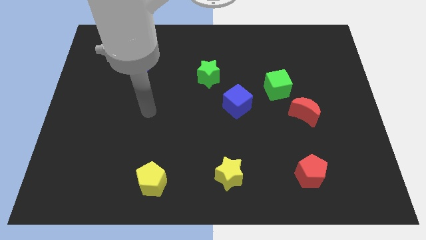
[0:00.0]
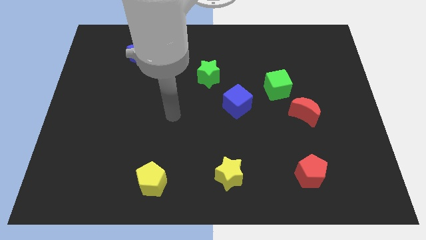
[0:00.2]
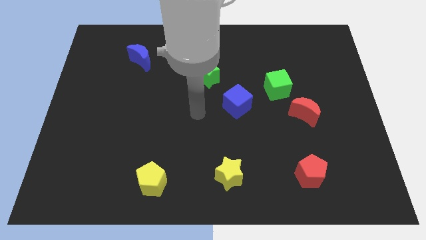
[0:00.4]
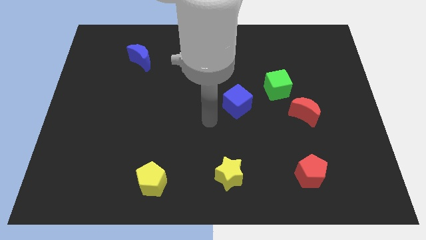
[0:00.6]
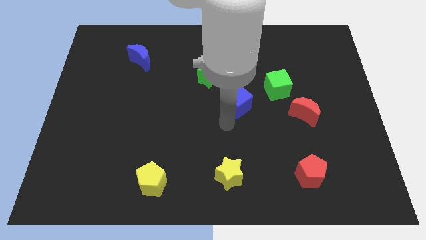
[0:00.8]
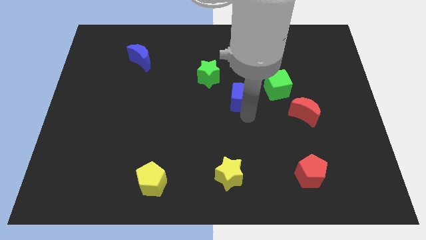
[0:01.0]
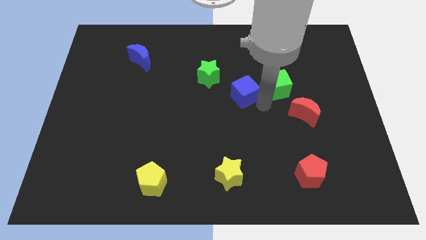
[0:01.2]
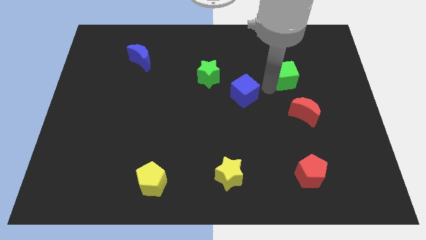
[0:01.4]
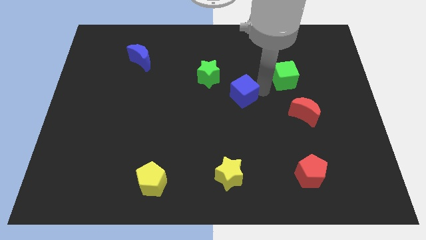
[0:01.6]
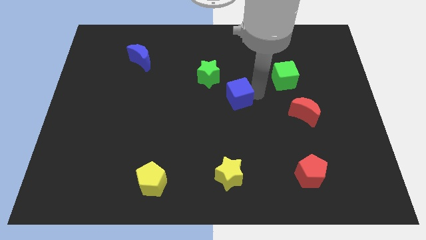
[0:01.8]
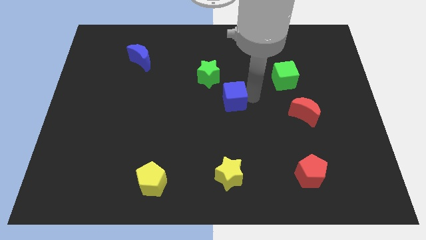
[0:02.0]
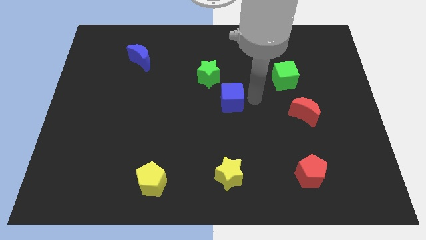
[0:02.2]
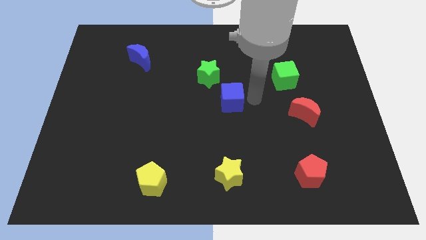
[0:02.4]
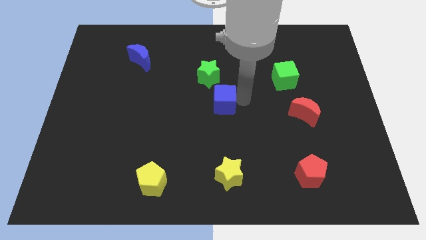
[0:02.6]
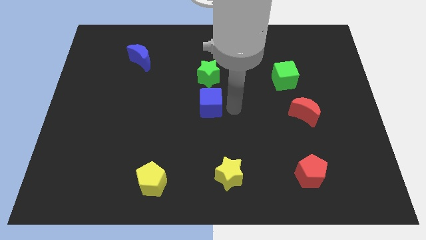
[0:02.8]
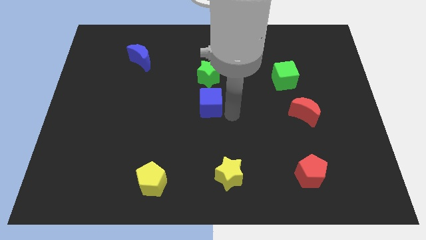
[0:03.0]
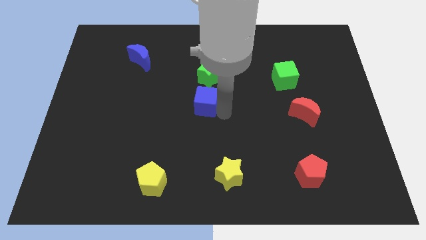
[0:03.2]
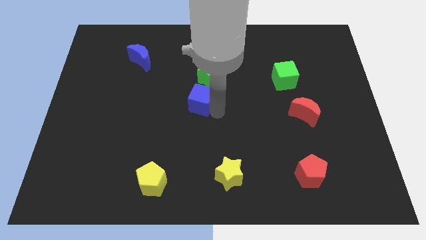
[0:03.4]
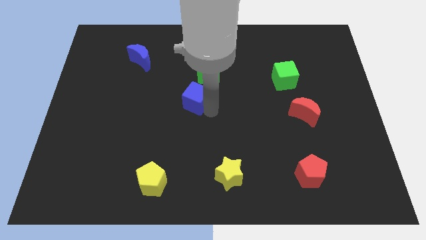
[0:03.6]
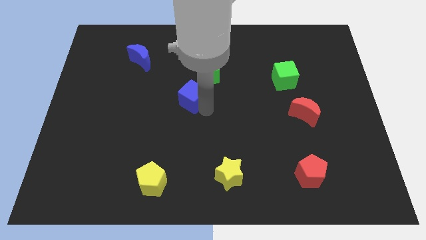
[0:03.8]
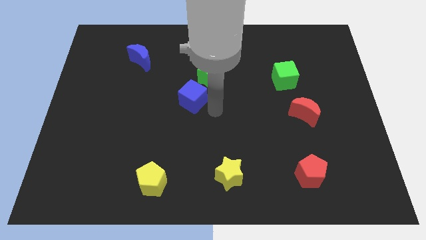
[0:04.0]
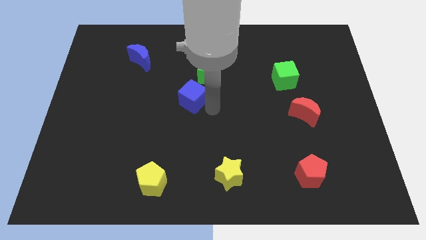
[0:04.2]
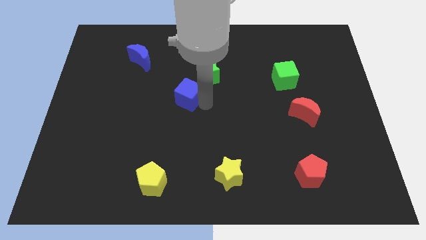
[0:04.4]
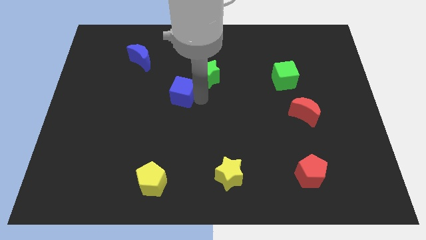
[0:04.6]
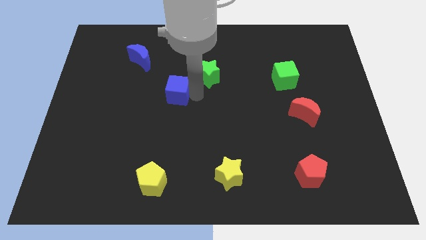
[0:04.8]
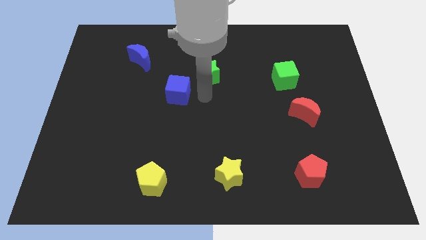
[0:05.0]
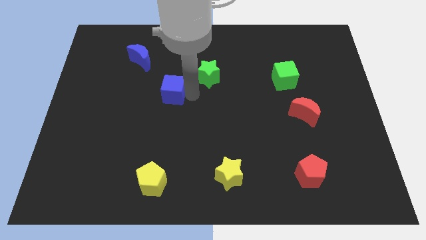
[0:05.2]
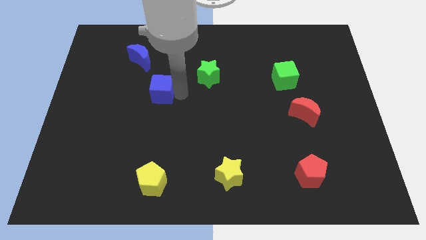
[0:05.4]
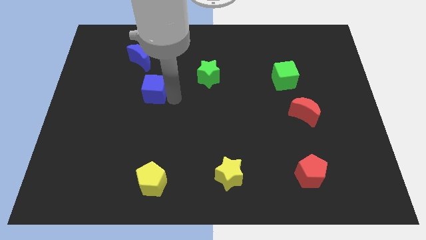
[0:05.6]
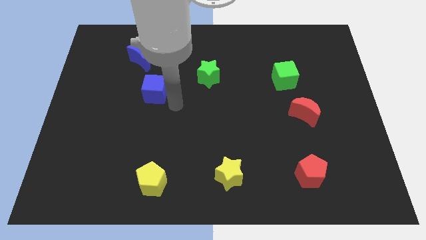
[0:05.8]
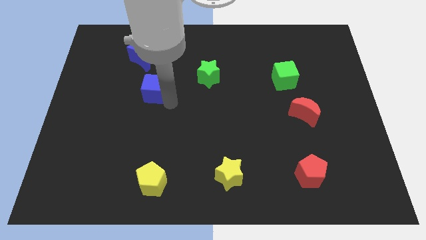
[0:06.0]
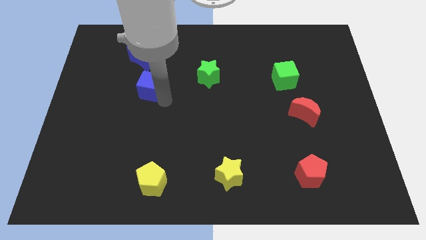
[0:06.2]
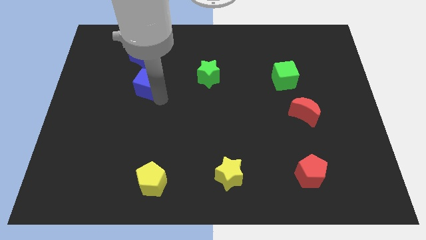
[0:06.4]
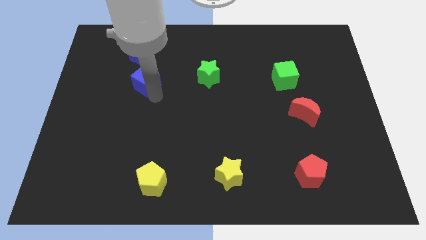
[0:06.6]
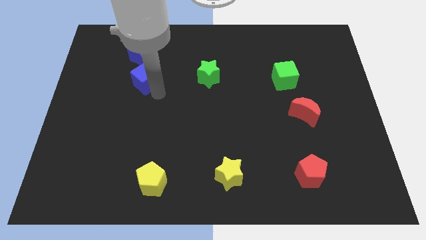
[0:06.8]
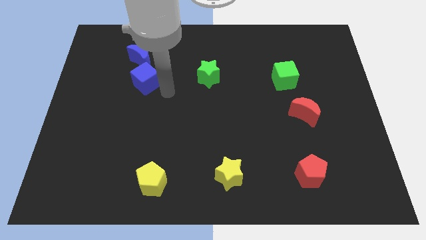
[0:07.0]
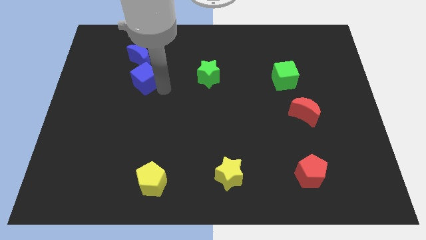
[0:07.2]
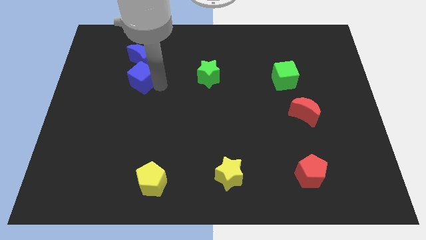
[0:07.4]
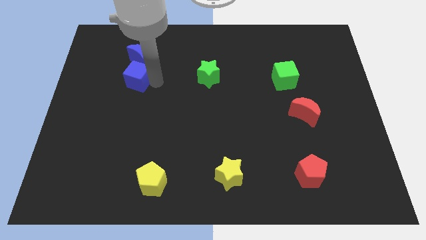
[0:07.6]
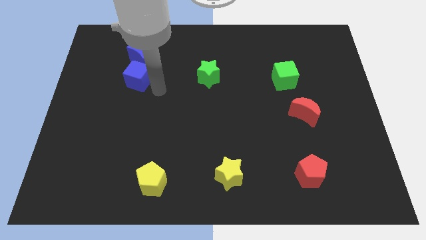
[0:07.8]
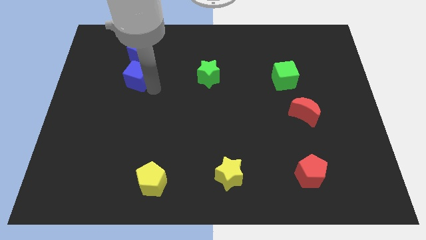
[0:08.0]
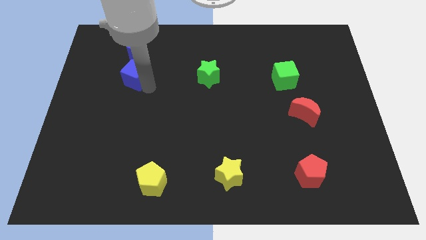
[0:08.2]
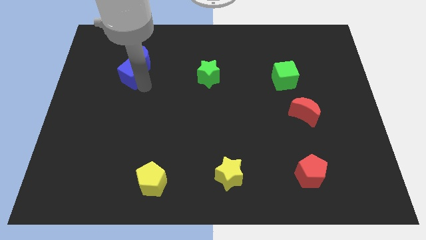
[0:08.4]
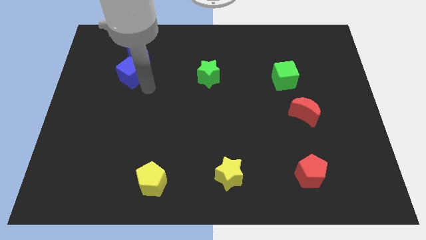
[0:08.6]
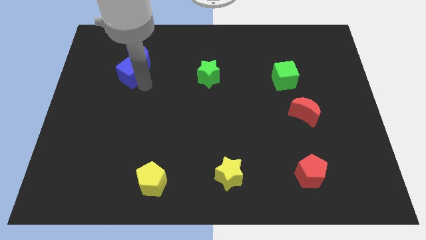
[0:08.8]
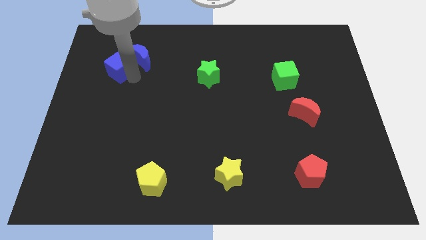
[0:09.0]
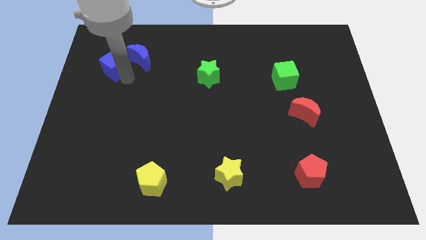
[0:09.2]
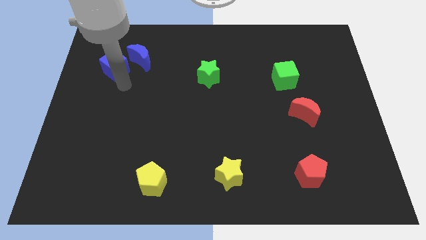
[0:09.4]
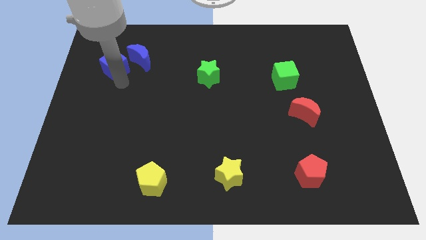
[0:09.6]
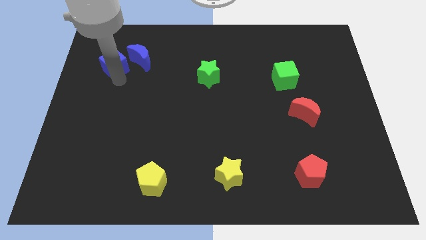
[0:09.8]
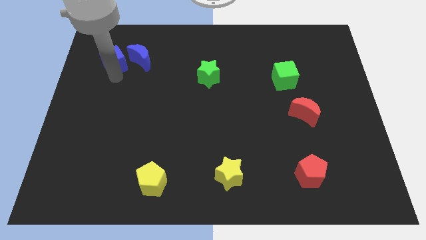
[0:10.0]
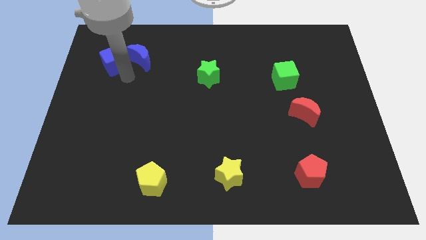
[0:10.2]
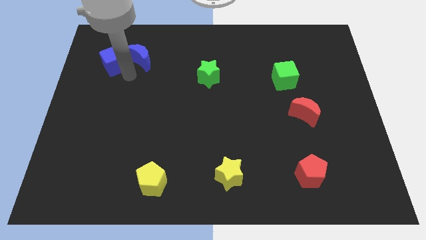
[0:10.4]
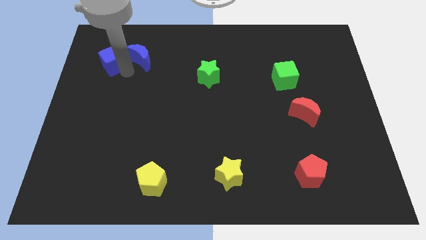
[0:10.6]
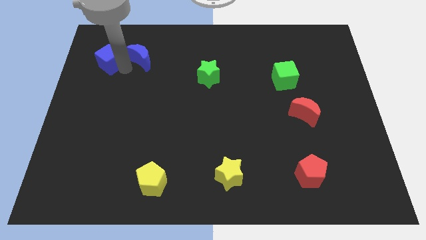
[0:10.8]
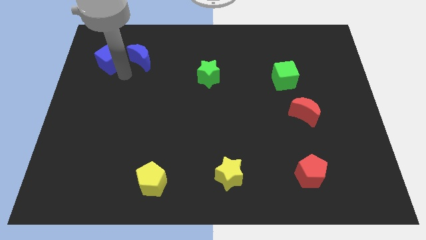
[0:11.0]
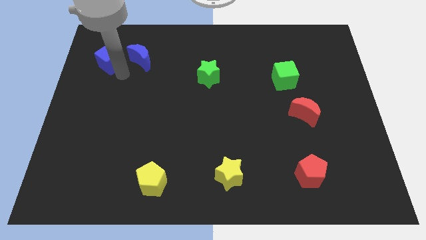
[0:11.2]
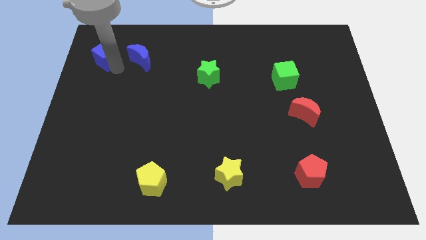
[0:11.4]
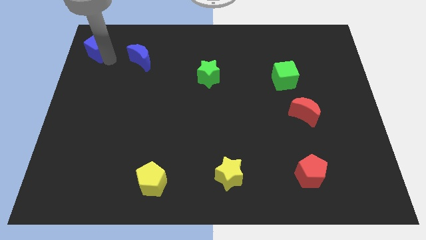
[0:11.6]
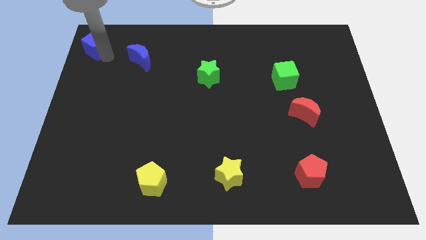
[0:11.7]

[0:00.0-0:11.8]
move the blue cube to the upper left corner

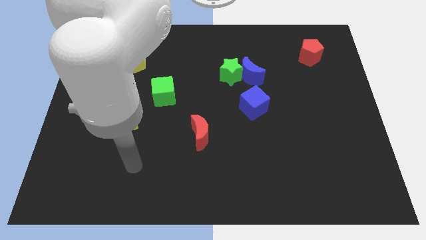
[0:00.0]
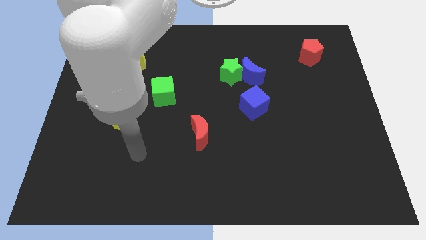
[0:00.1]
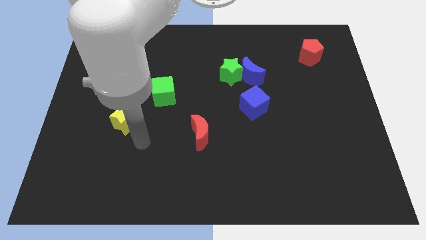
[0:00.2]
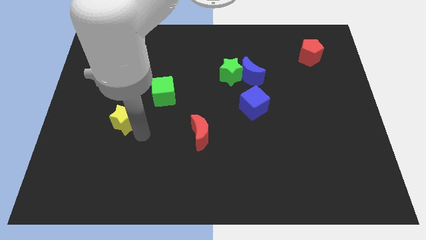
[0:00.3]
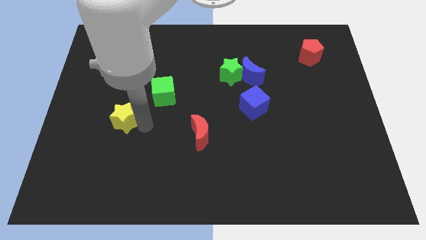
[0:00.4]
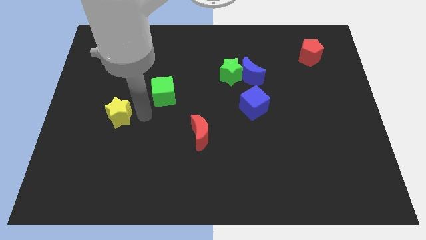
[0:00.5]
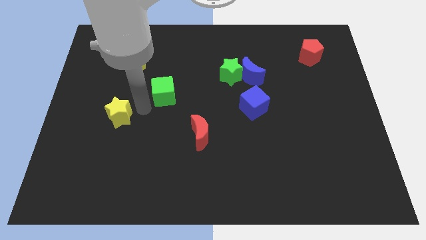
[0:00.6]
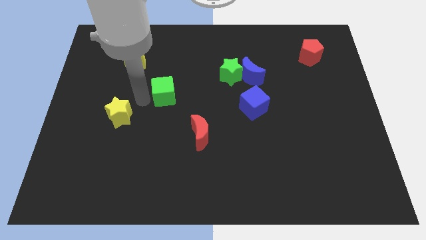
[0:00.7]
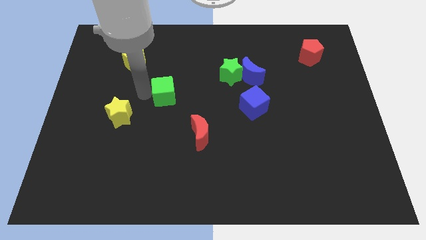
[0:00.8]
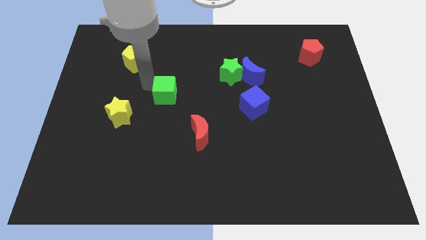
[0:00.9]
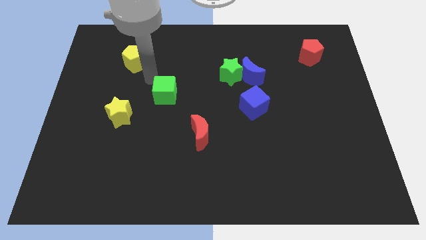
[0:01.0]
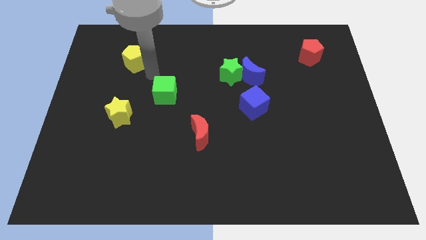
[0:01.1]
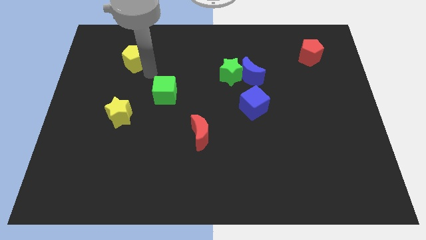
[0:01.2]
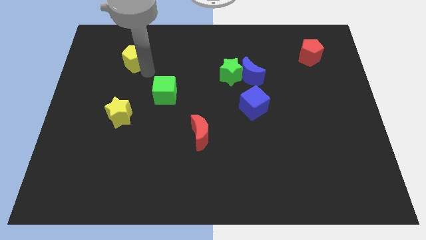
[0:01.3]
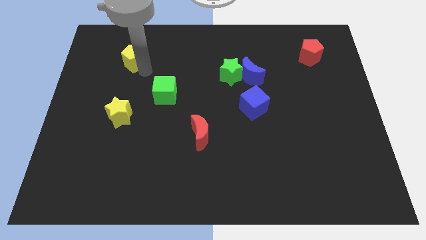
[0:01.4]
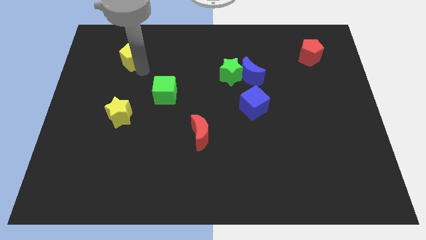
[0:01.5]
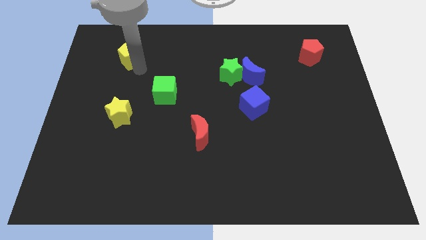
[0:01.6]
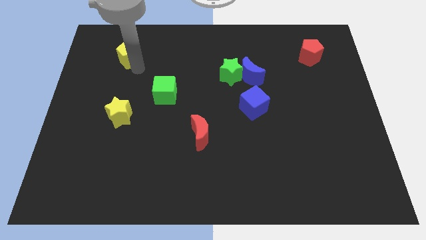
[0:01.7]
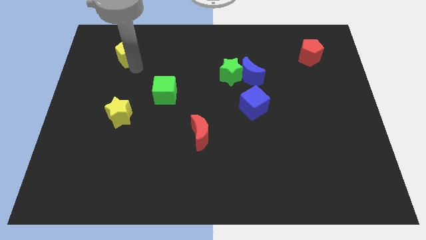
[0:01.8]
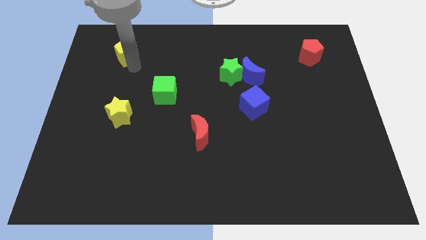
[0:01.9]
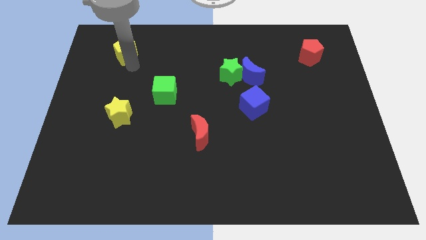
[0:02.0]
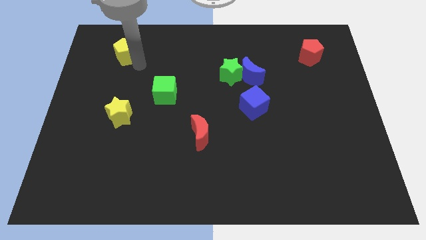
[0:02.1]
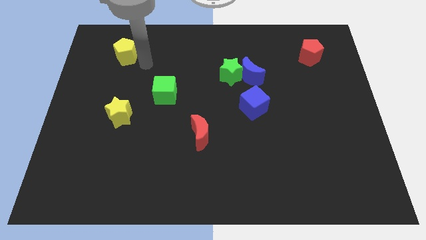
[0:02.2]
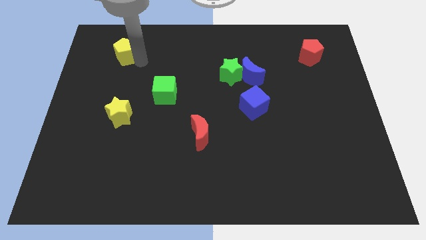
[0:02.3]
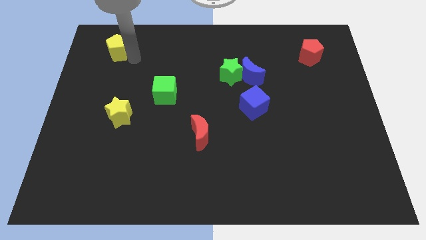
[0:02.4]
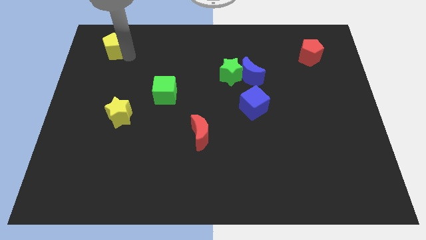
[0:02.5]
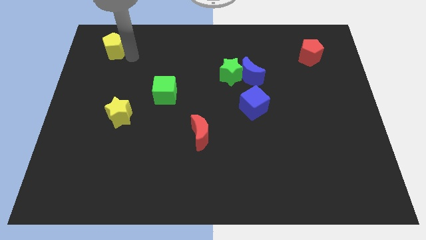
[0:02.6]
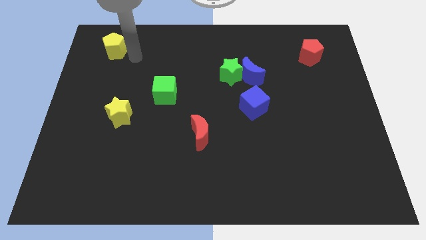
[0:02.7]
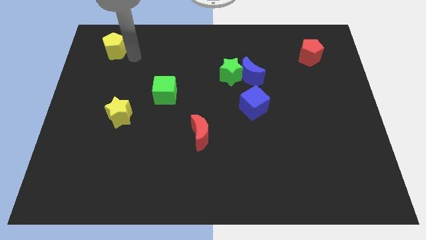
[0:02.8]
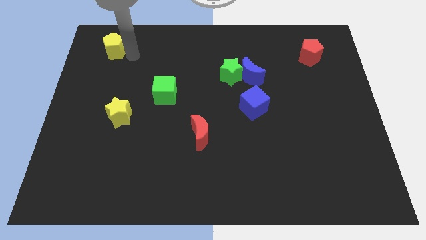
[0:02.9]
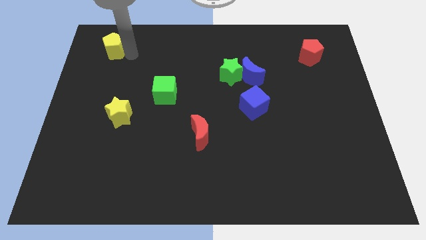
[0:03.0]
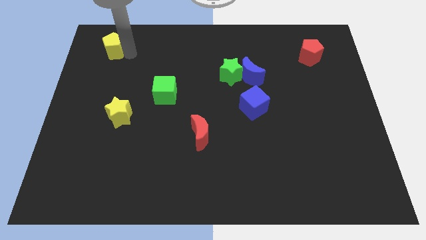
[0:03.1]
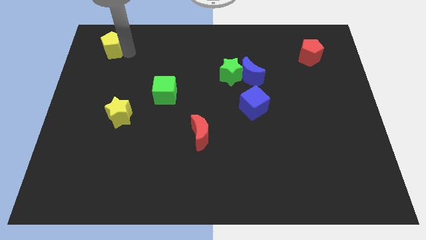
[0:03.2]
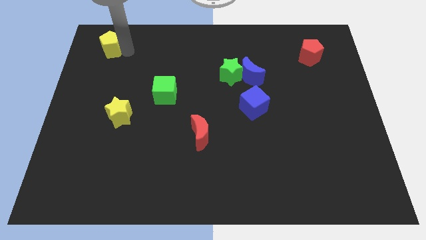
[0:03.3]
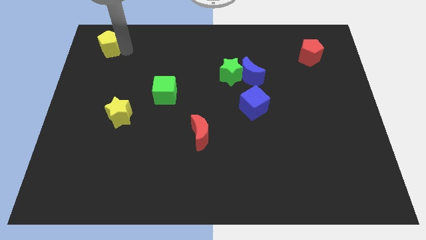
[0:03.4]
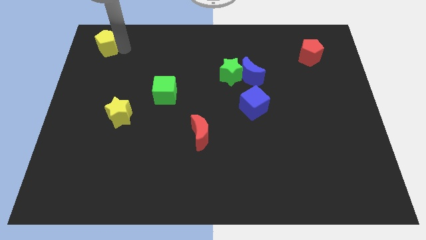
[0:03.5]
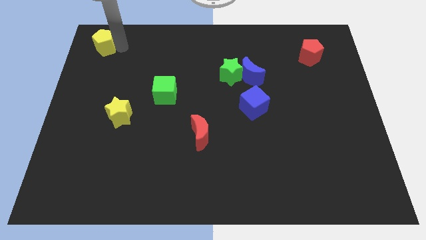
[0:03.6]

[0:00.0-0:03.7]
slide the yellow pentagon to the top left corner
